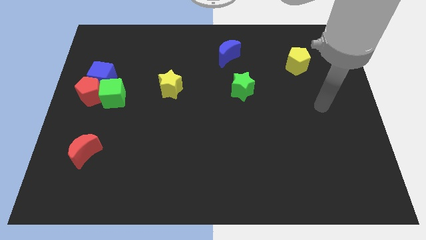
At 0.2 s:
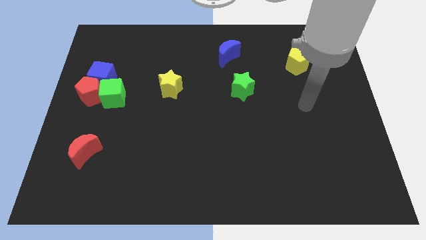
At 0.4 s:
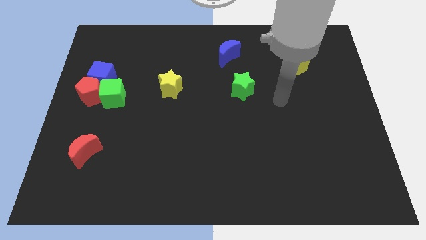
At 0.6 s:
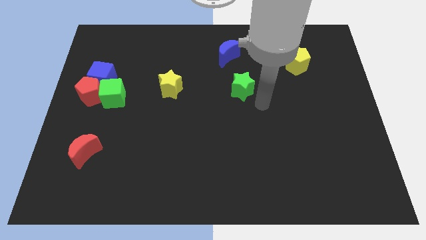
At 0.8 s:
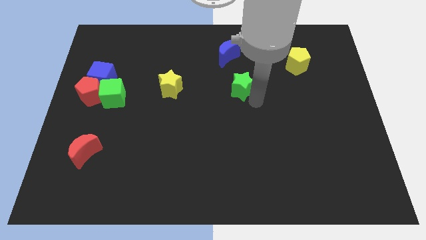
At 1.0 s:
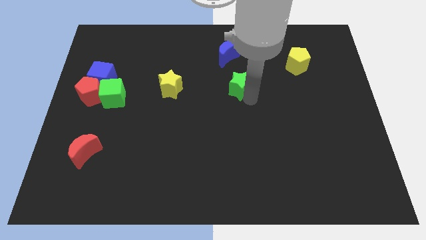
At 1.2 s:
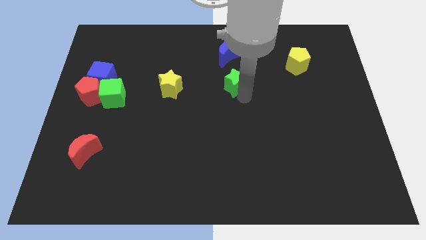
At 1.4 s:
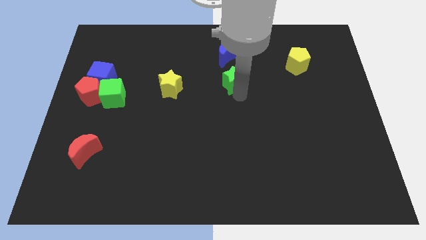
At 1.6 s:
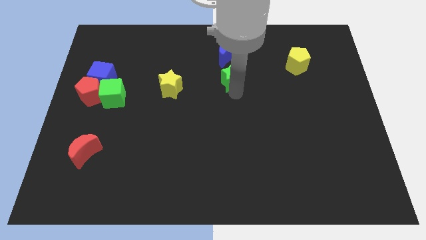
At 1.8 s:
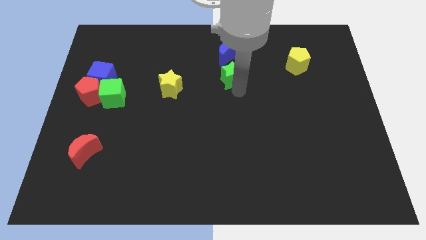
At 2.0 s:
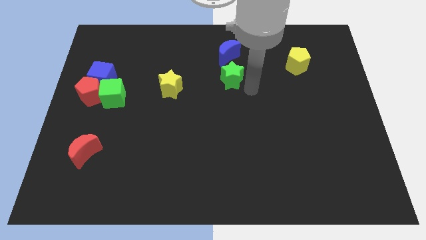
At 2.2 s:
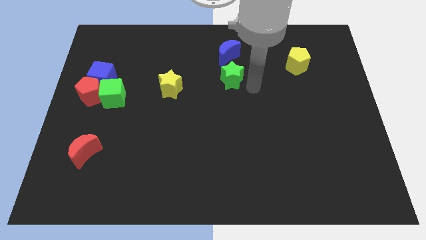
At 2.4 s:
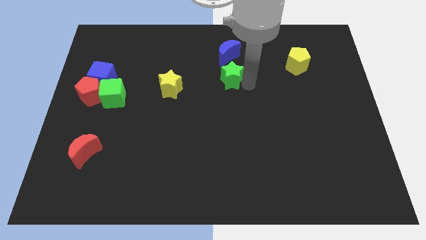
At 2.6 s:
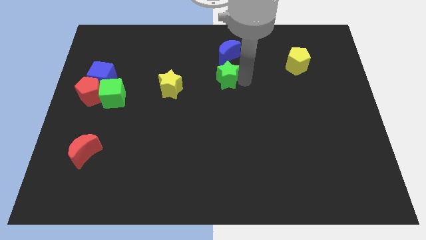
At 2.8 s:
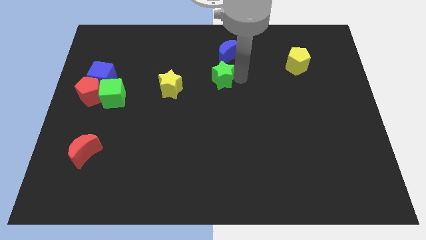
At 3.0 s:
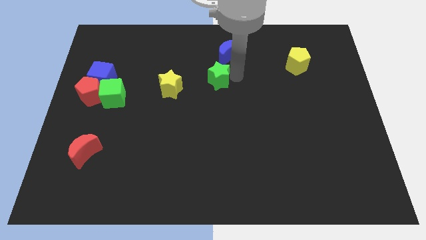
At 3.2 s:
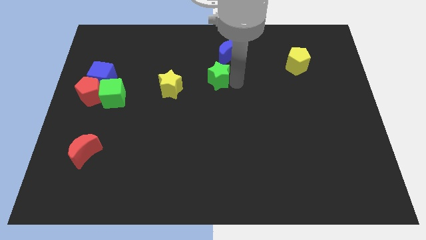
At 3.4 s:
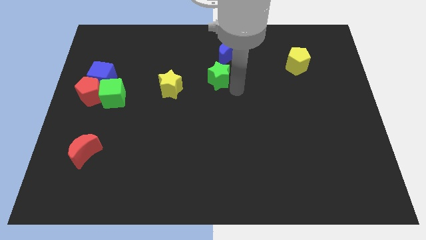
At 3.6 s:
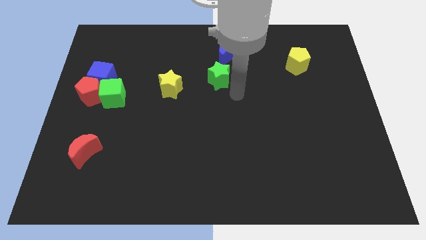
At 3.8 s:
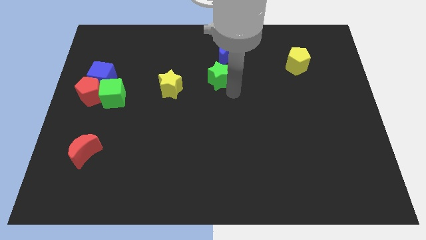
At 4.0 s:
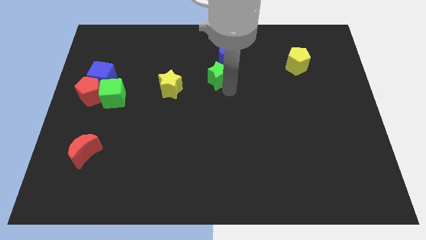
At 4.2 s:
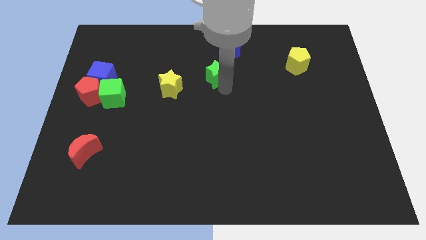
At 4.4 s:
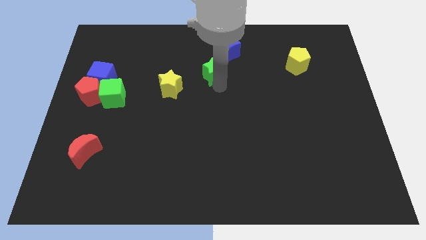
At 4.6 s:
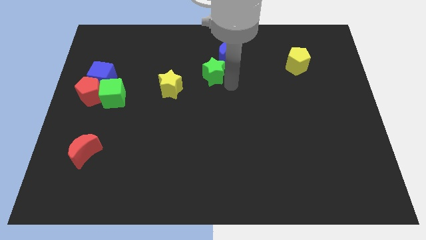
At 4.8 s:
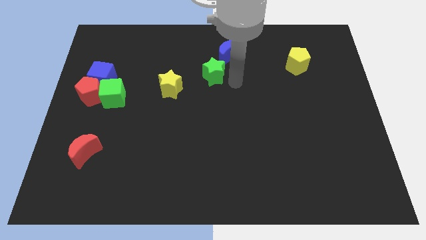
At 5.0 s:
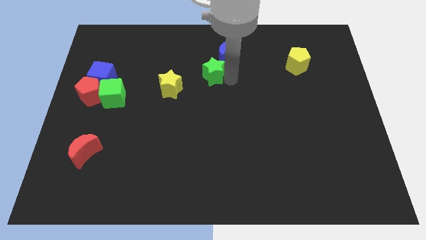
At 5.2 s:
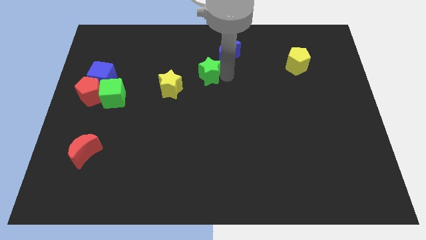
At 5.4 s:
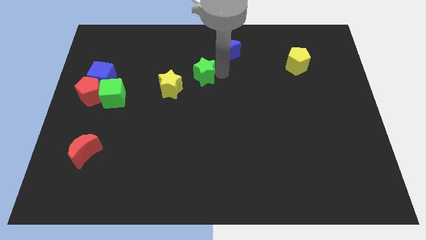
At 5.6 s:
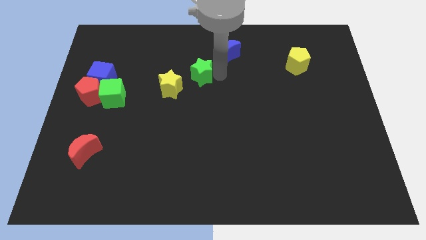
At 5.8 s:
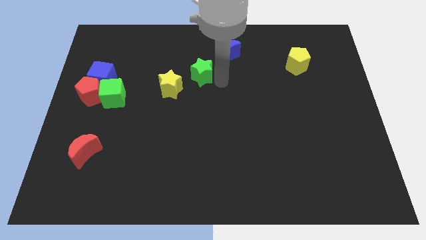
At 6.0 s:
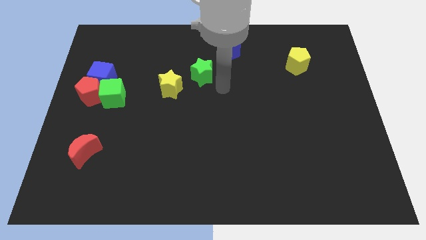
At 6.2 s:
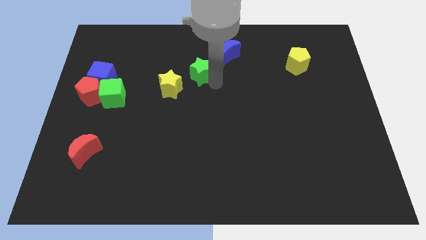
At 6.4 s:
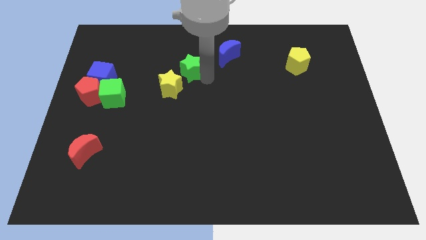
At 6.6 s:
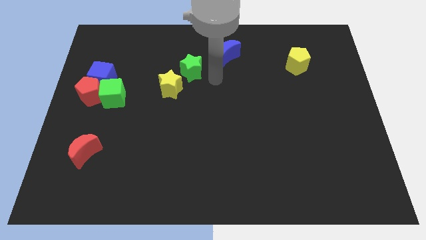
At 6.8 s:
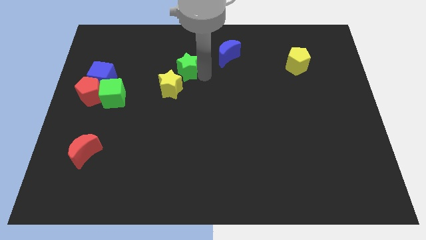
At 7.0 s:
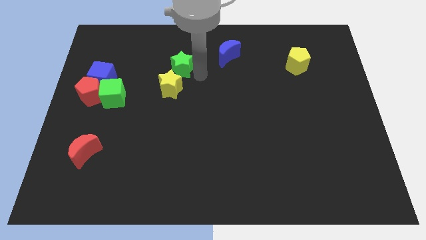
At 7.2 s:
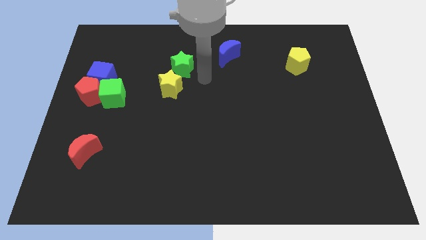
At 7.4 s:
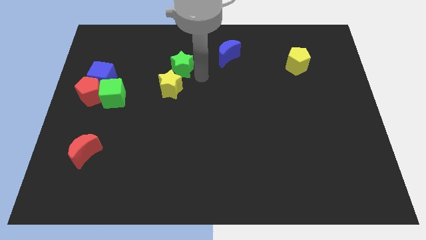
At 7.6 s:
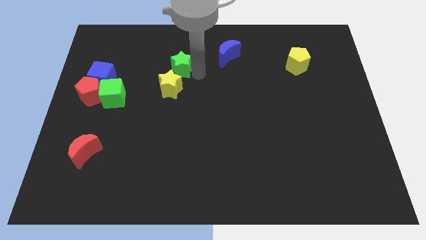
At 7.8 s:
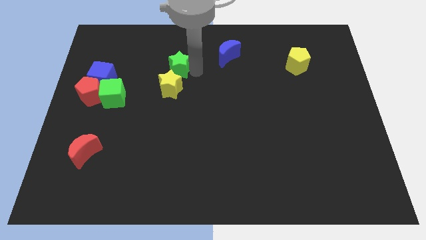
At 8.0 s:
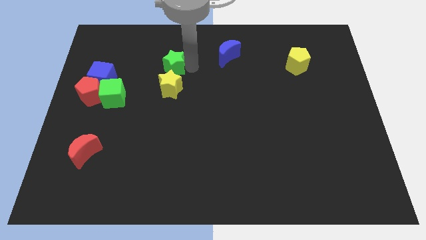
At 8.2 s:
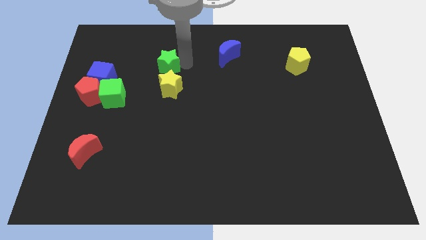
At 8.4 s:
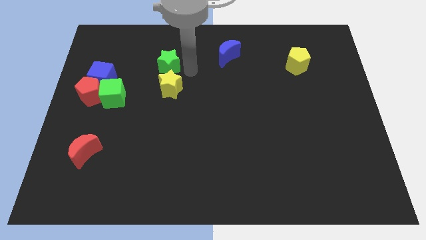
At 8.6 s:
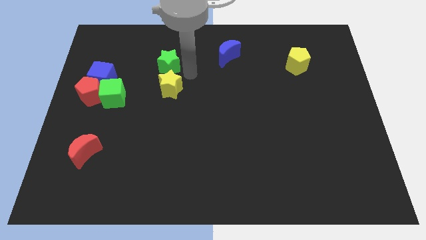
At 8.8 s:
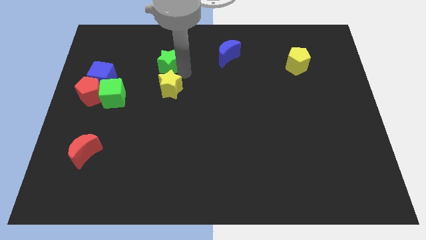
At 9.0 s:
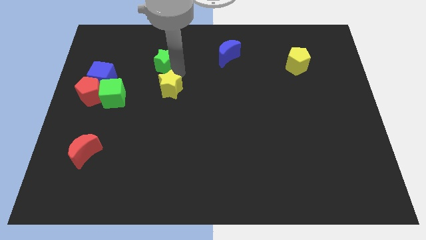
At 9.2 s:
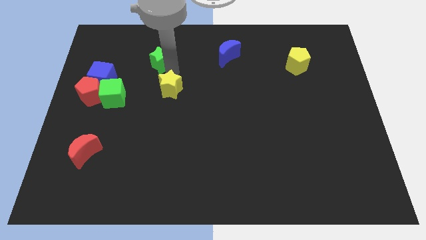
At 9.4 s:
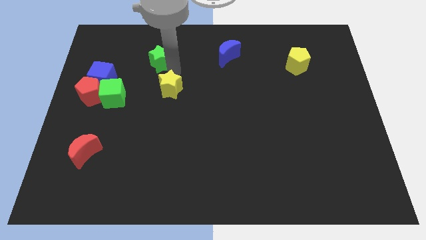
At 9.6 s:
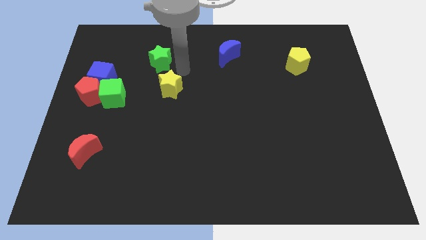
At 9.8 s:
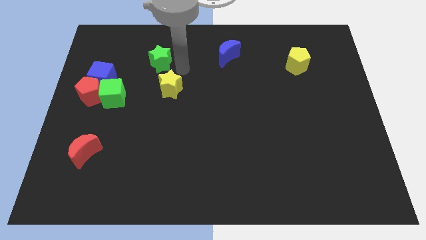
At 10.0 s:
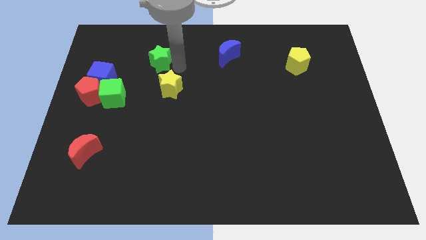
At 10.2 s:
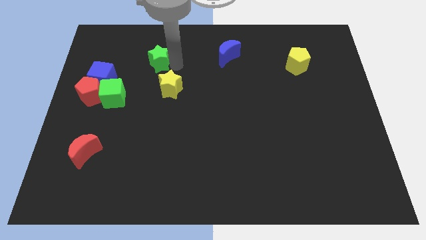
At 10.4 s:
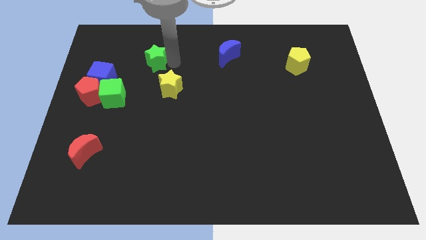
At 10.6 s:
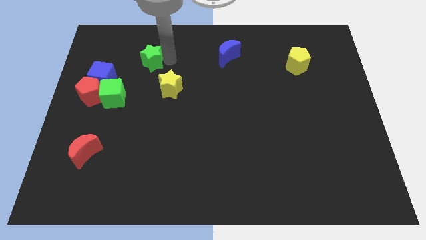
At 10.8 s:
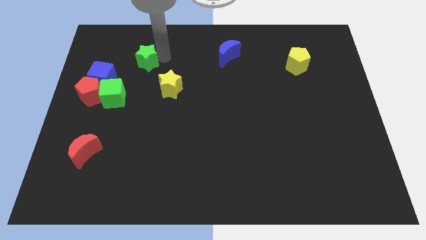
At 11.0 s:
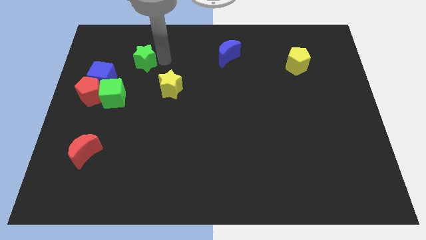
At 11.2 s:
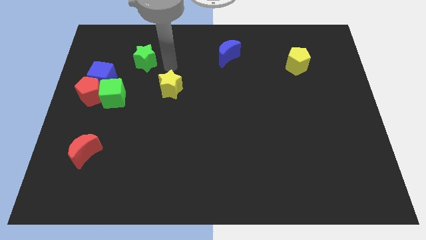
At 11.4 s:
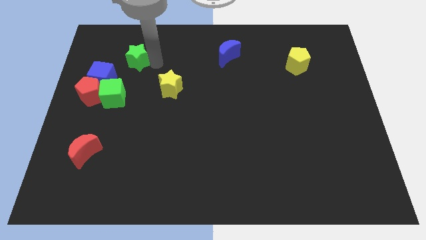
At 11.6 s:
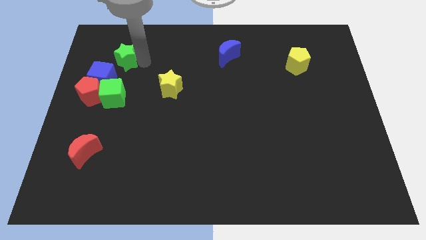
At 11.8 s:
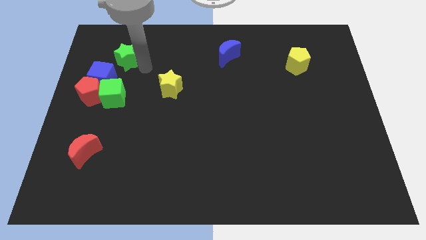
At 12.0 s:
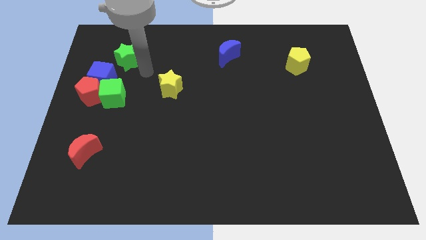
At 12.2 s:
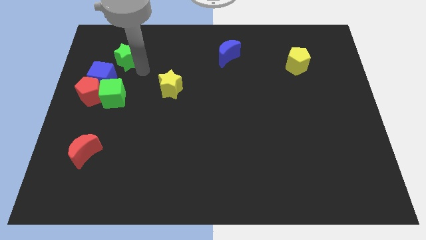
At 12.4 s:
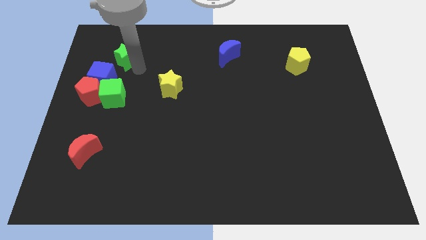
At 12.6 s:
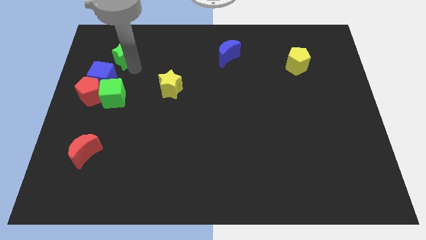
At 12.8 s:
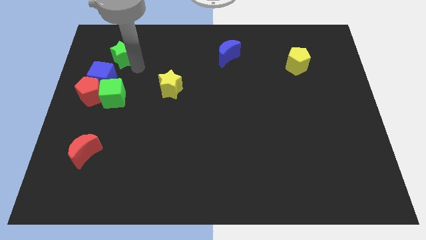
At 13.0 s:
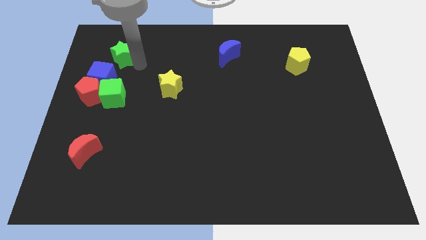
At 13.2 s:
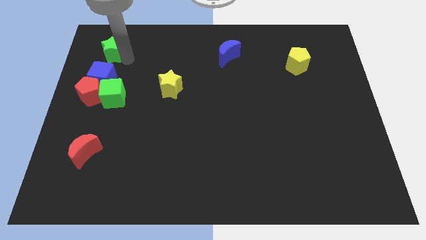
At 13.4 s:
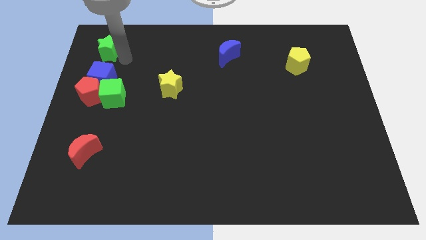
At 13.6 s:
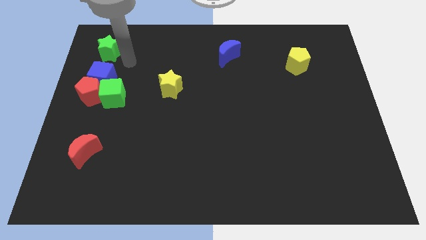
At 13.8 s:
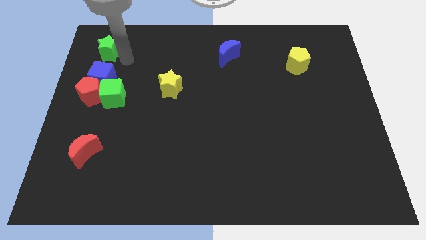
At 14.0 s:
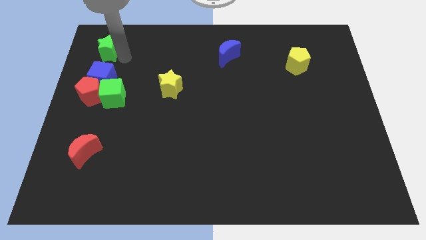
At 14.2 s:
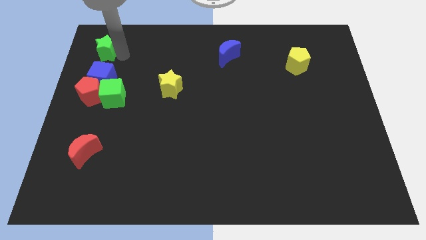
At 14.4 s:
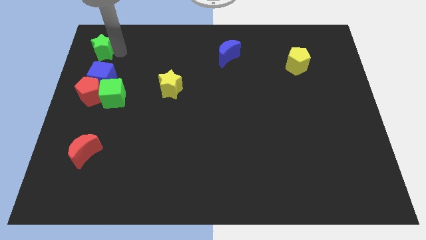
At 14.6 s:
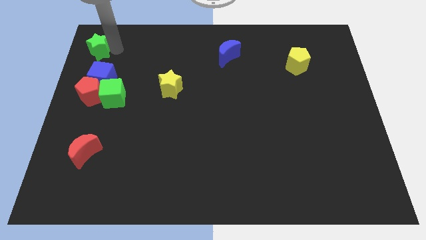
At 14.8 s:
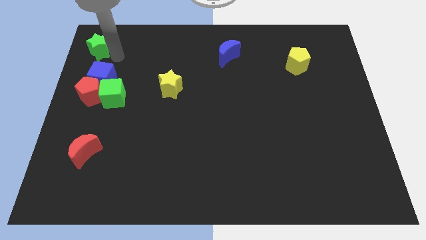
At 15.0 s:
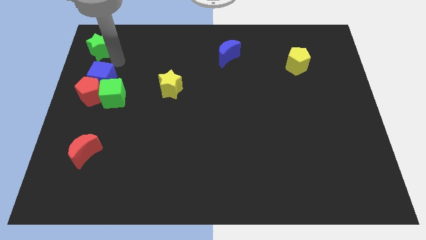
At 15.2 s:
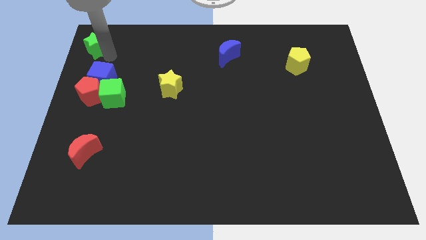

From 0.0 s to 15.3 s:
move the green star to the upper left corner

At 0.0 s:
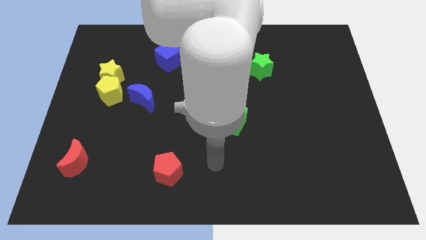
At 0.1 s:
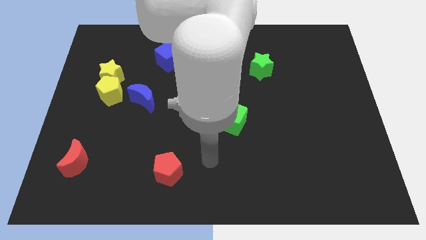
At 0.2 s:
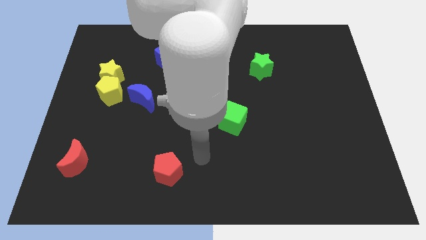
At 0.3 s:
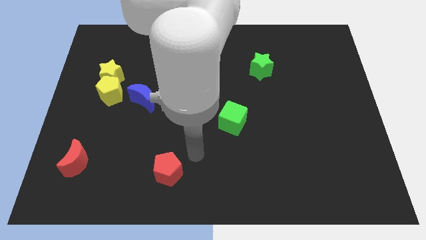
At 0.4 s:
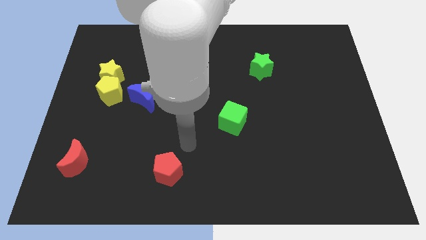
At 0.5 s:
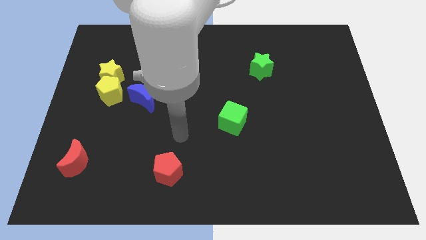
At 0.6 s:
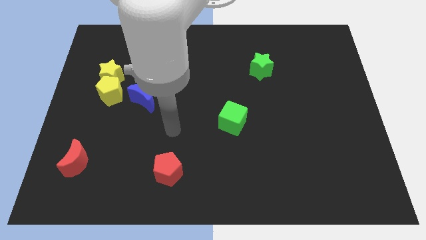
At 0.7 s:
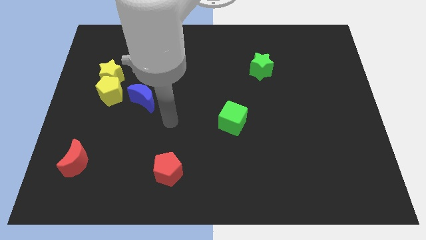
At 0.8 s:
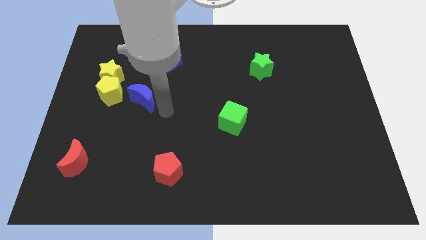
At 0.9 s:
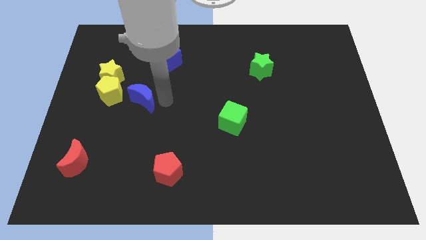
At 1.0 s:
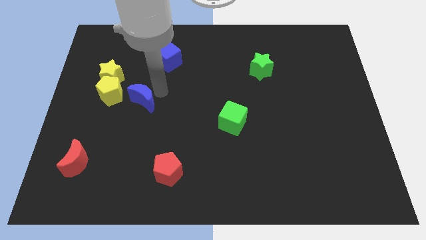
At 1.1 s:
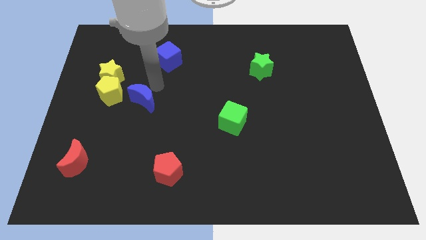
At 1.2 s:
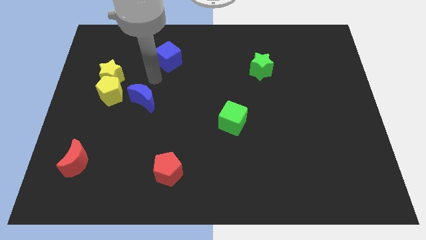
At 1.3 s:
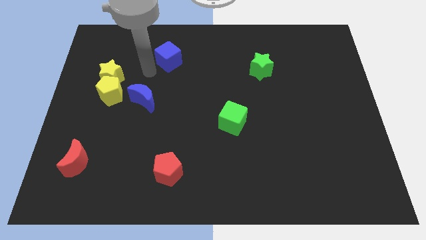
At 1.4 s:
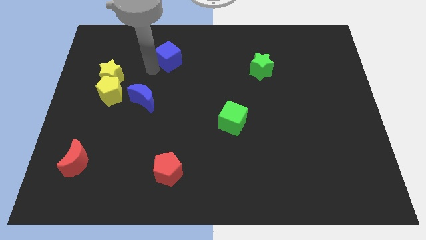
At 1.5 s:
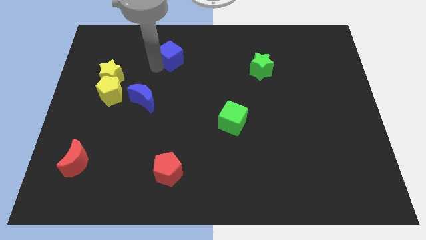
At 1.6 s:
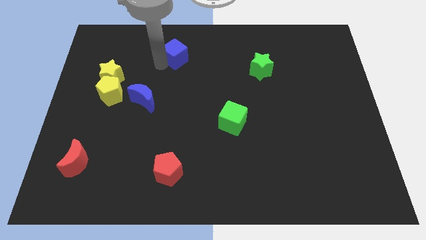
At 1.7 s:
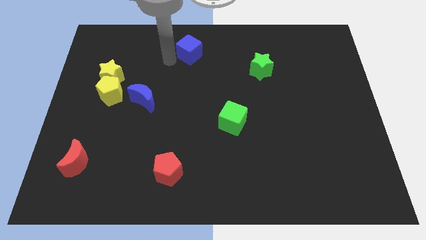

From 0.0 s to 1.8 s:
move the blue cube to the top side
